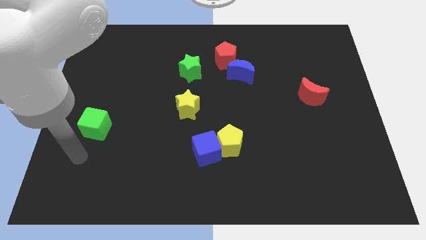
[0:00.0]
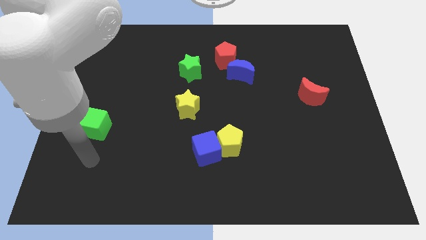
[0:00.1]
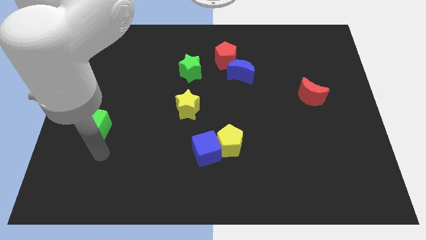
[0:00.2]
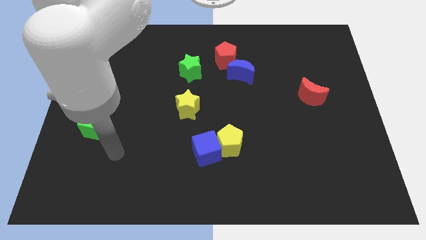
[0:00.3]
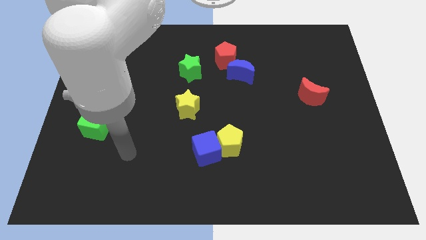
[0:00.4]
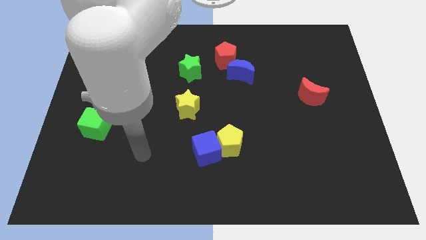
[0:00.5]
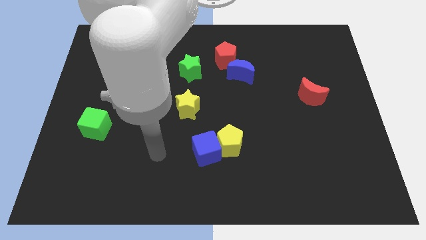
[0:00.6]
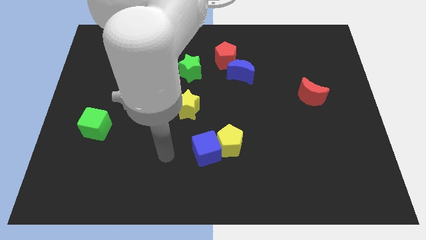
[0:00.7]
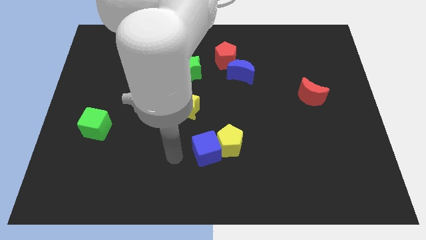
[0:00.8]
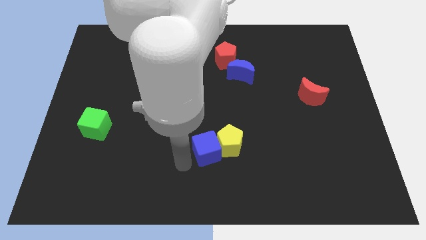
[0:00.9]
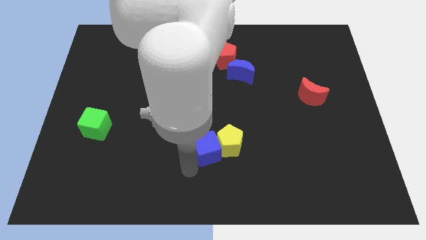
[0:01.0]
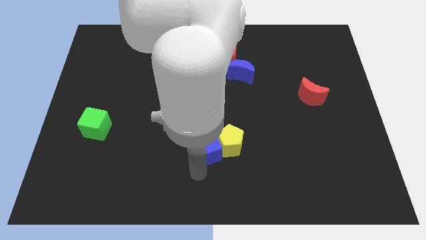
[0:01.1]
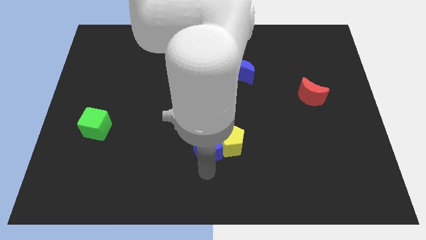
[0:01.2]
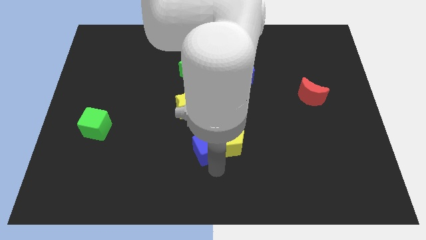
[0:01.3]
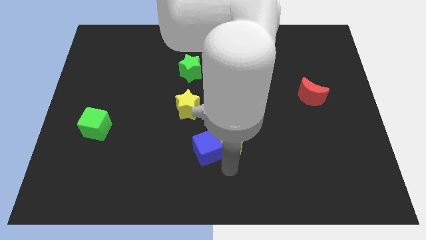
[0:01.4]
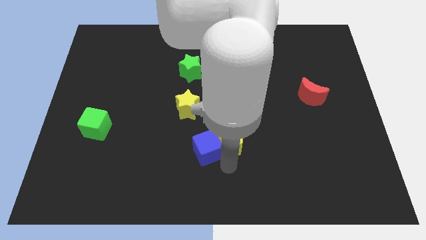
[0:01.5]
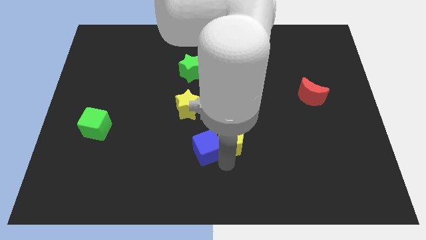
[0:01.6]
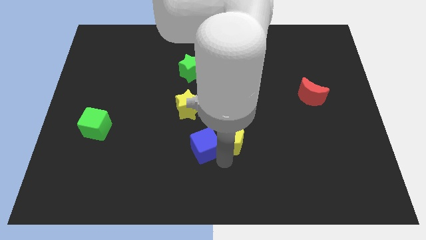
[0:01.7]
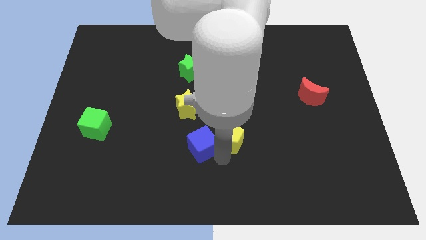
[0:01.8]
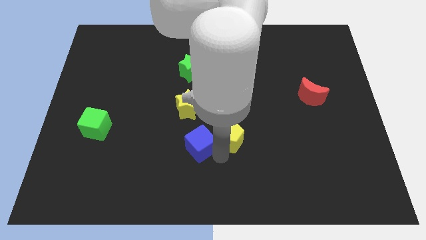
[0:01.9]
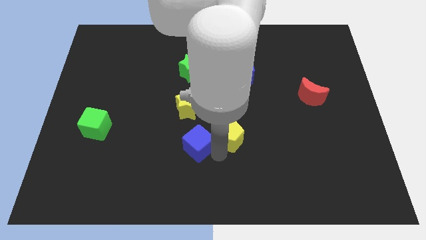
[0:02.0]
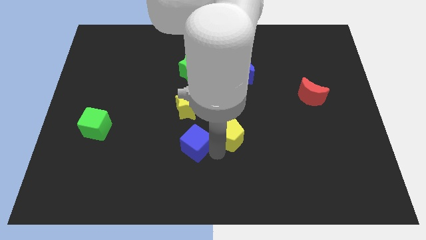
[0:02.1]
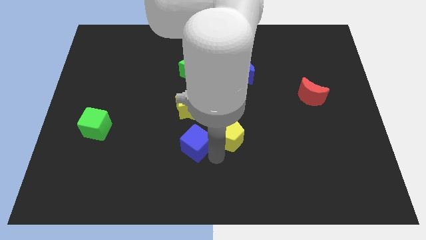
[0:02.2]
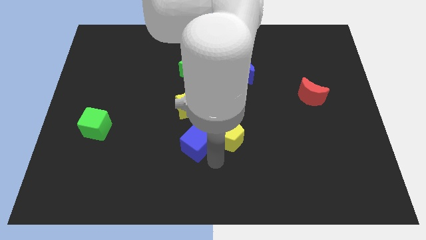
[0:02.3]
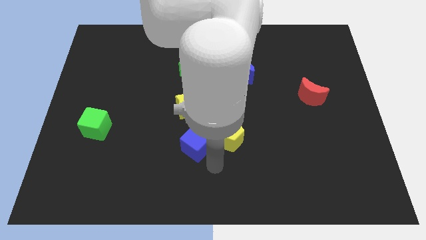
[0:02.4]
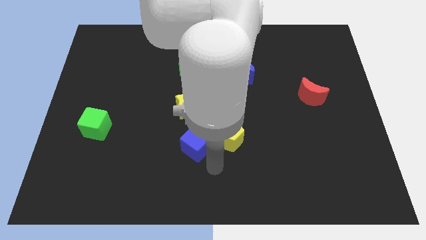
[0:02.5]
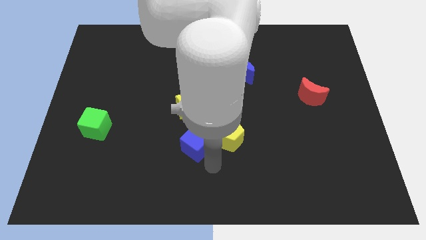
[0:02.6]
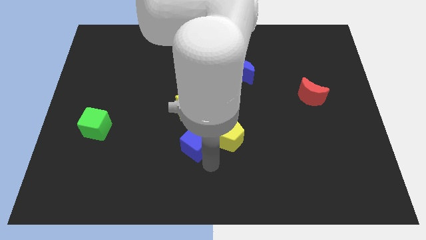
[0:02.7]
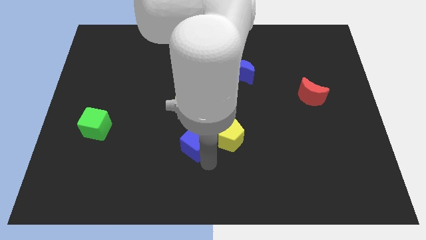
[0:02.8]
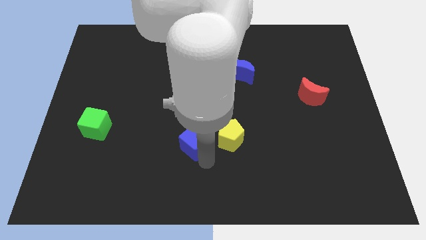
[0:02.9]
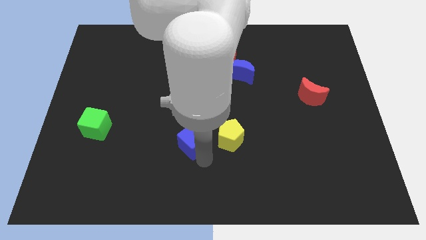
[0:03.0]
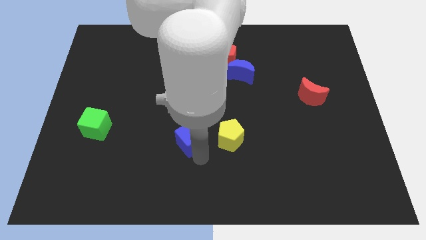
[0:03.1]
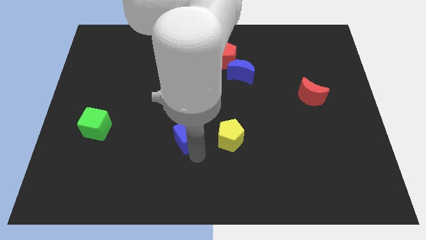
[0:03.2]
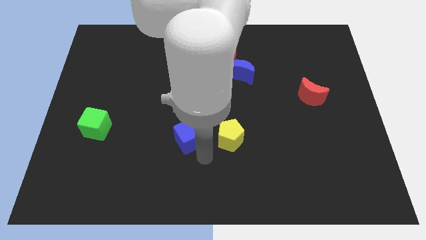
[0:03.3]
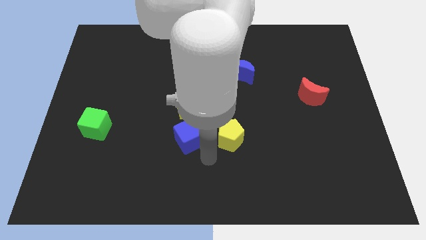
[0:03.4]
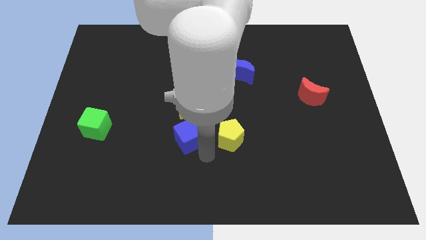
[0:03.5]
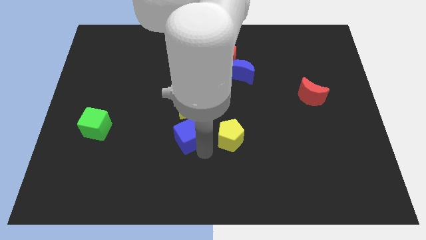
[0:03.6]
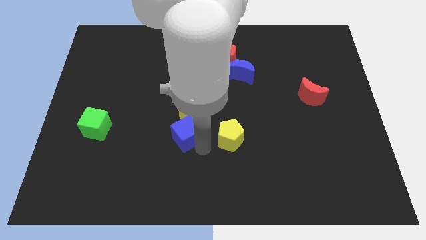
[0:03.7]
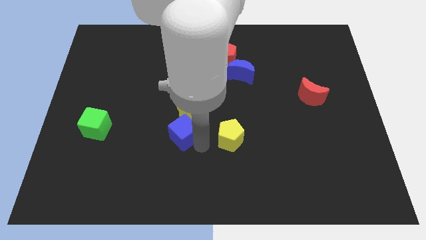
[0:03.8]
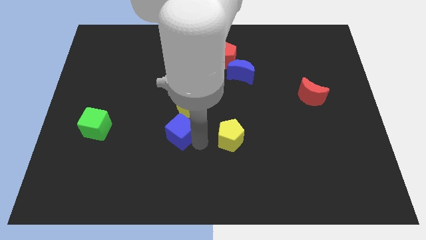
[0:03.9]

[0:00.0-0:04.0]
push the blue cube up and to the left diagonally a little

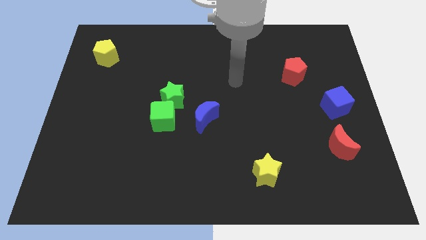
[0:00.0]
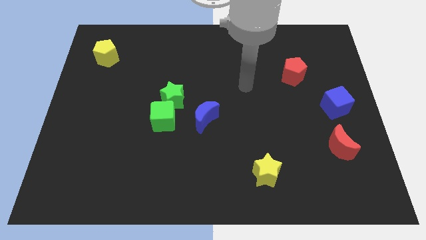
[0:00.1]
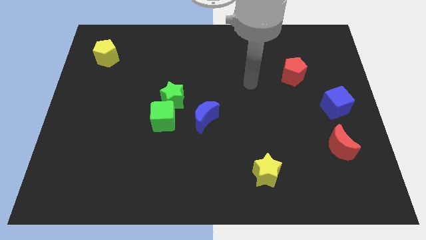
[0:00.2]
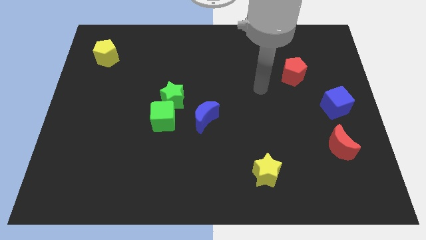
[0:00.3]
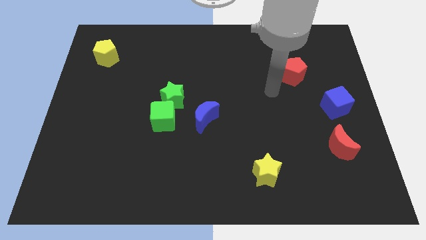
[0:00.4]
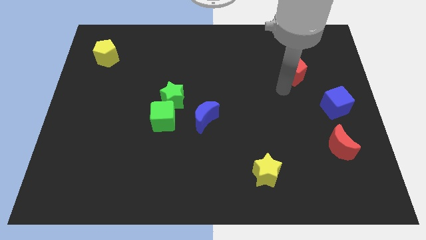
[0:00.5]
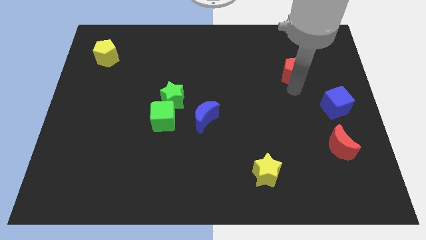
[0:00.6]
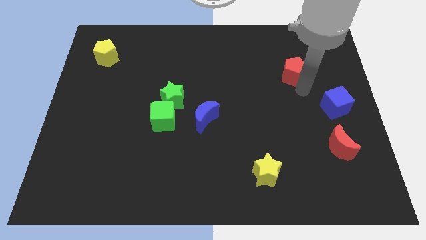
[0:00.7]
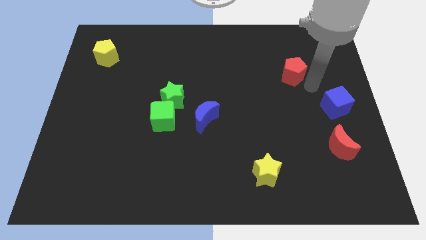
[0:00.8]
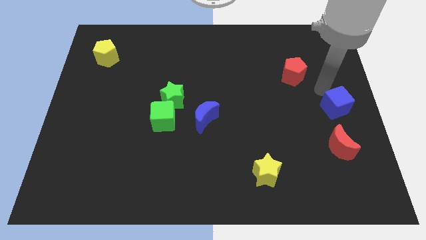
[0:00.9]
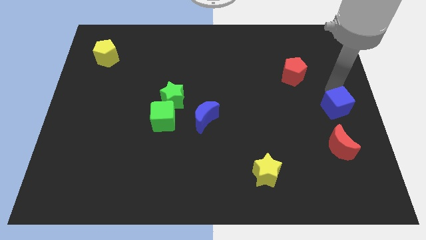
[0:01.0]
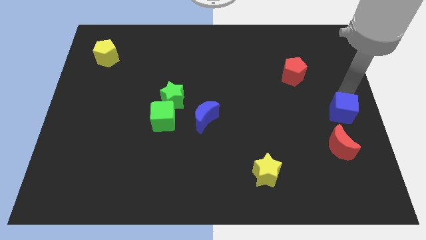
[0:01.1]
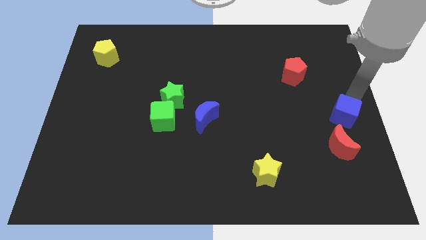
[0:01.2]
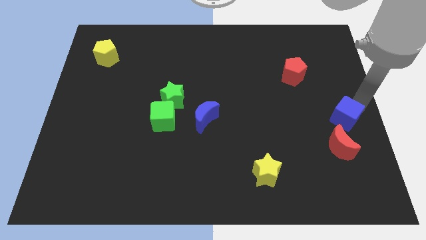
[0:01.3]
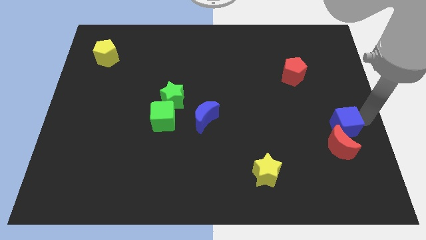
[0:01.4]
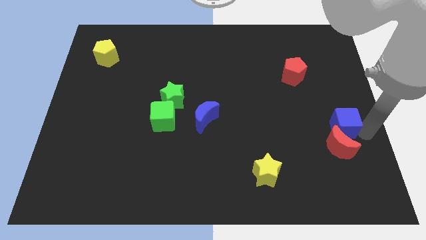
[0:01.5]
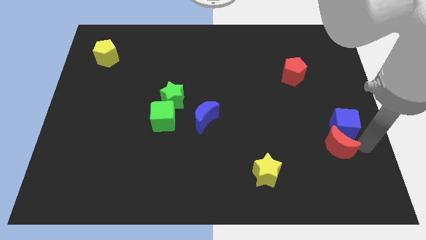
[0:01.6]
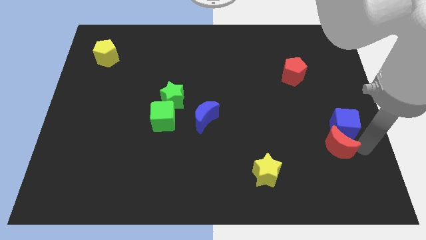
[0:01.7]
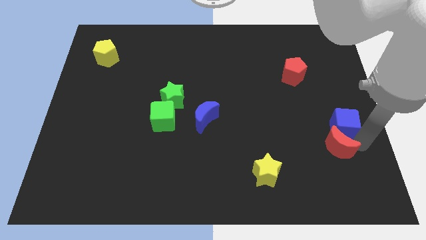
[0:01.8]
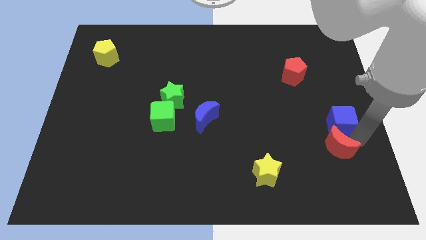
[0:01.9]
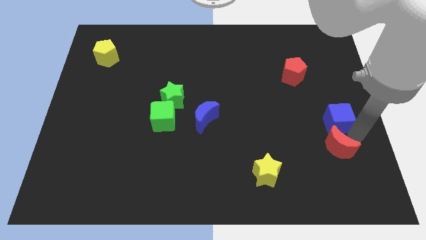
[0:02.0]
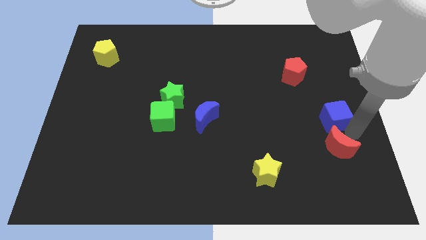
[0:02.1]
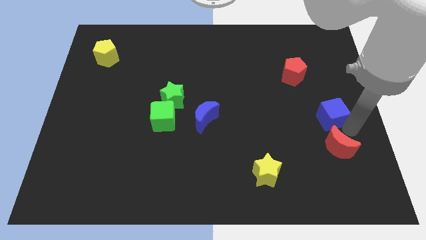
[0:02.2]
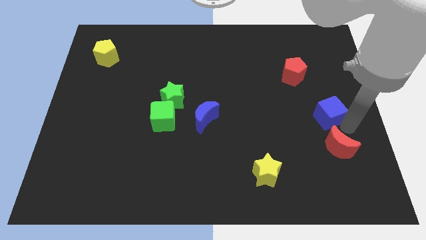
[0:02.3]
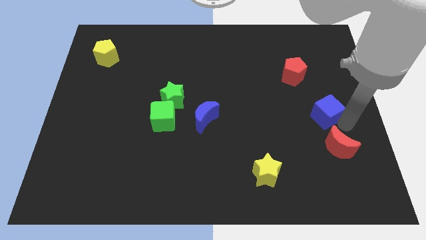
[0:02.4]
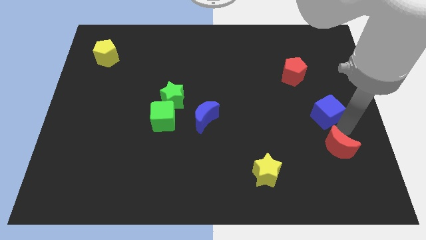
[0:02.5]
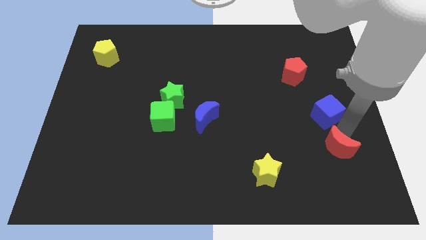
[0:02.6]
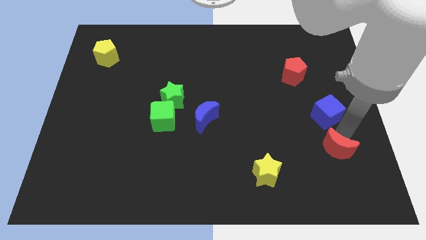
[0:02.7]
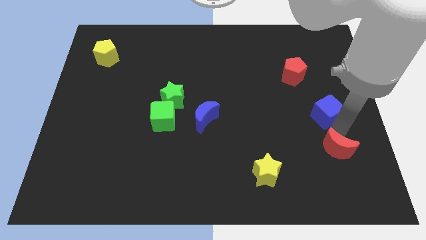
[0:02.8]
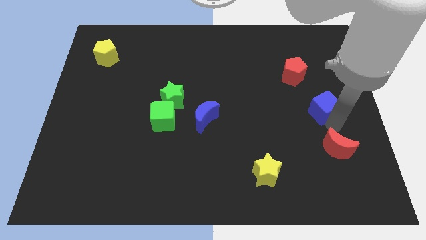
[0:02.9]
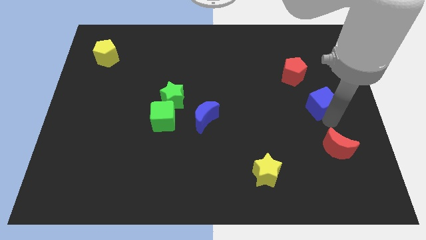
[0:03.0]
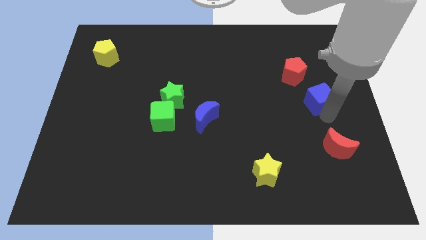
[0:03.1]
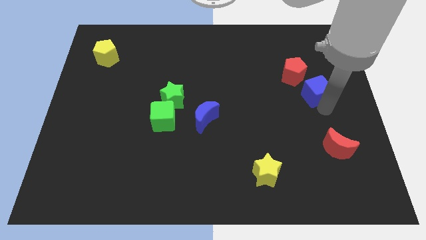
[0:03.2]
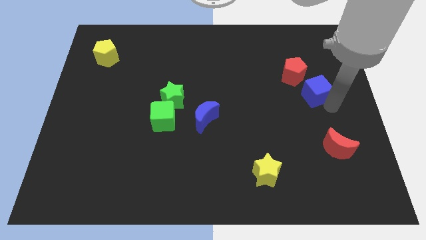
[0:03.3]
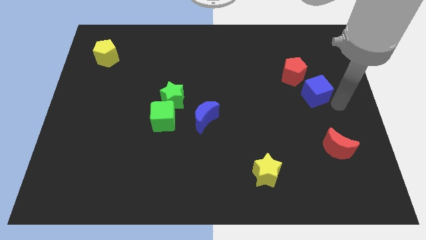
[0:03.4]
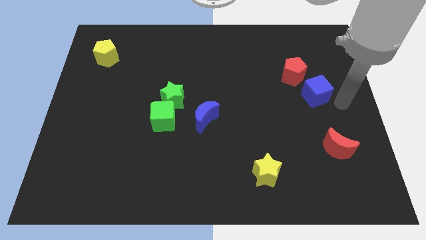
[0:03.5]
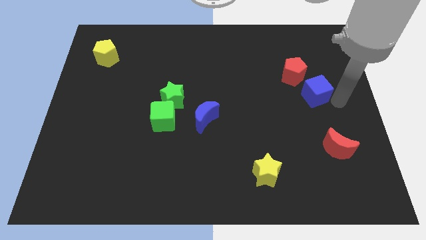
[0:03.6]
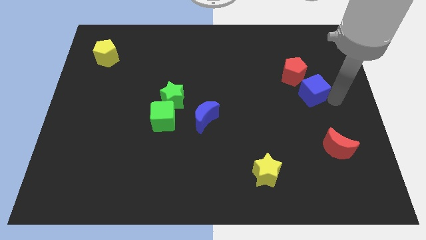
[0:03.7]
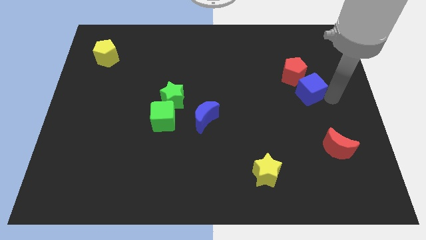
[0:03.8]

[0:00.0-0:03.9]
push the blue cube a little upwards and then left
